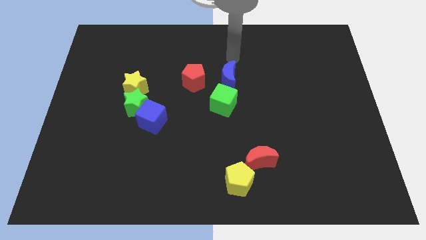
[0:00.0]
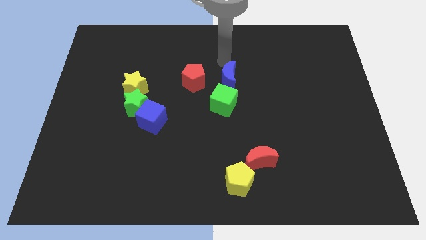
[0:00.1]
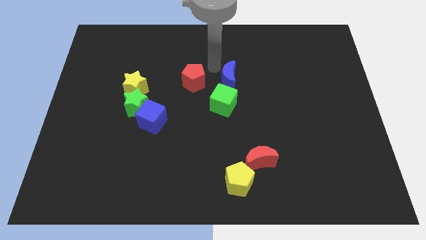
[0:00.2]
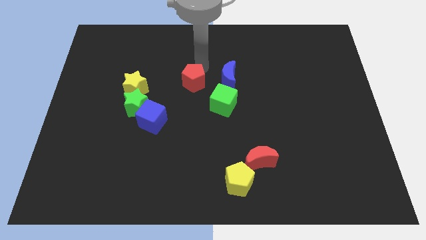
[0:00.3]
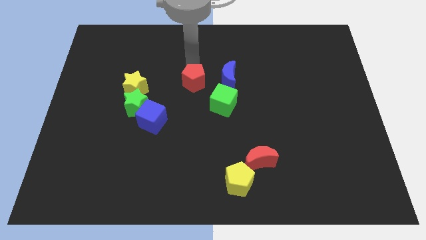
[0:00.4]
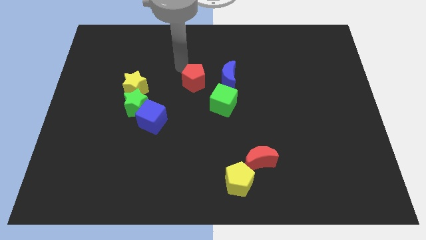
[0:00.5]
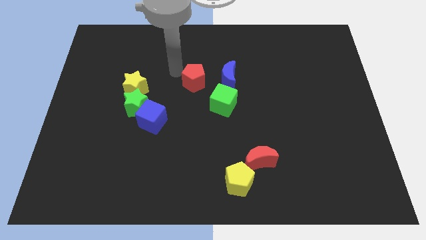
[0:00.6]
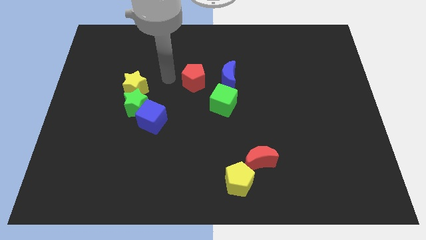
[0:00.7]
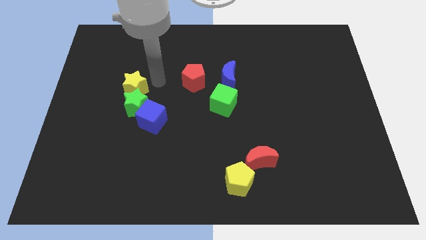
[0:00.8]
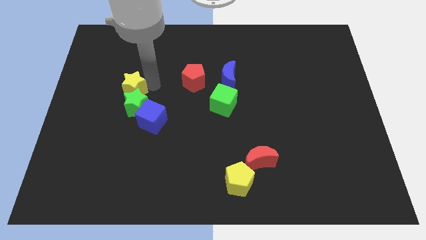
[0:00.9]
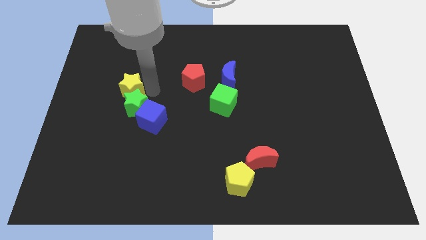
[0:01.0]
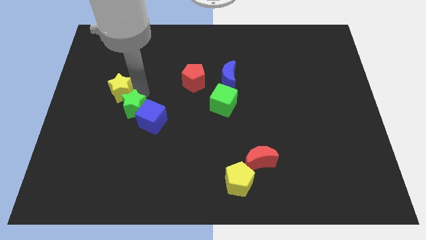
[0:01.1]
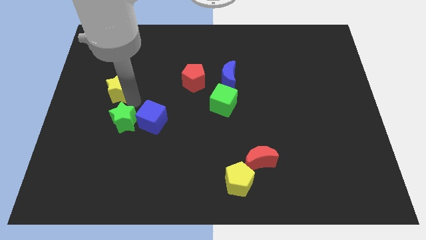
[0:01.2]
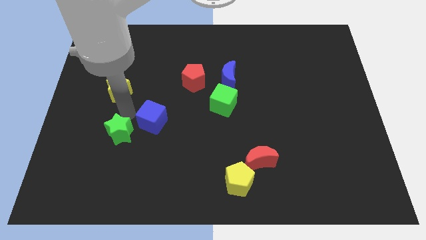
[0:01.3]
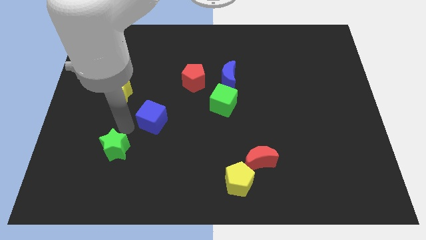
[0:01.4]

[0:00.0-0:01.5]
pull the blue cube apart from the green star

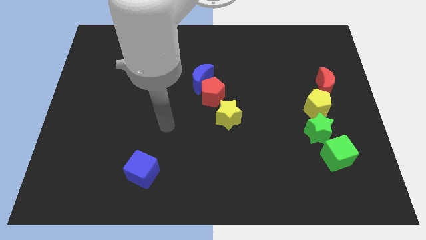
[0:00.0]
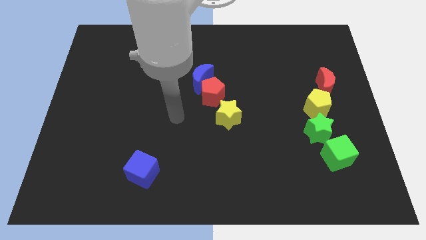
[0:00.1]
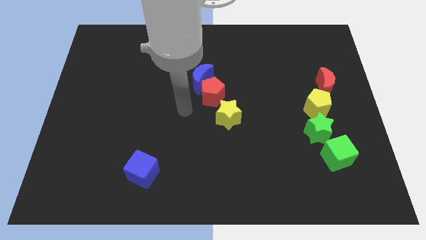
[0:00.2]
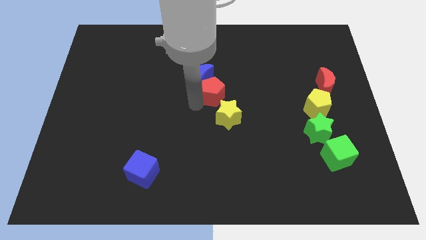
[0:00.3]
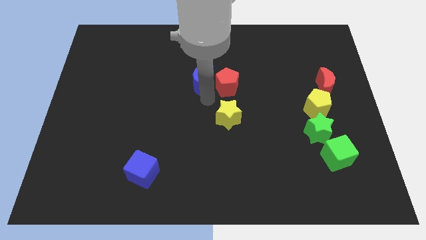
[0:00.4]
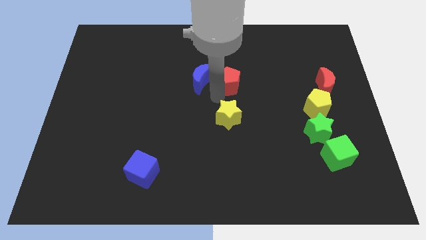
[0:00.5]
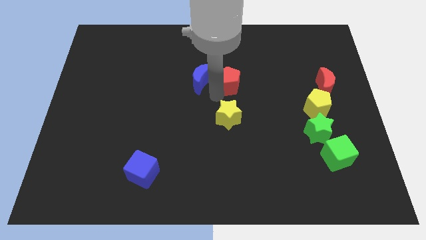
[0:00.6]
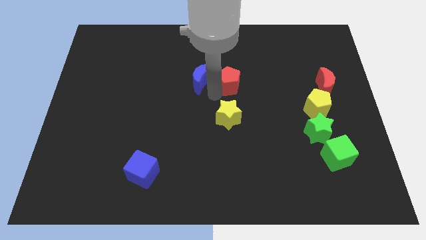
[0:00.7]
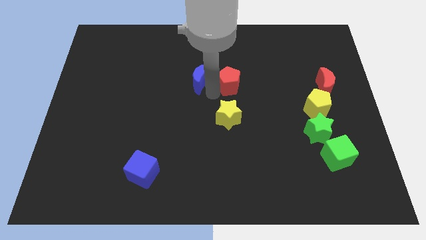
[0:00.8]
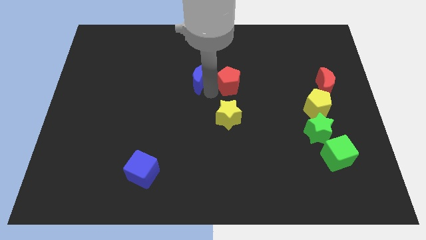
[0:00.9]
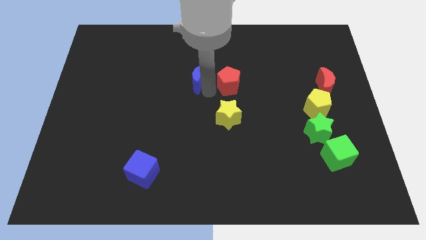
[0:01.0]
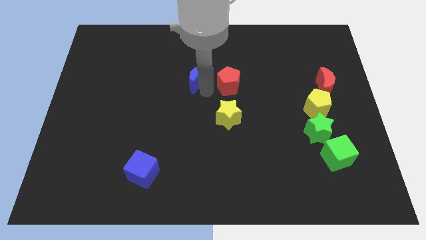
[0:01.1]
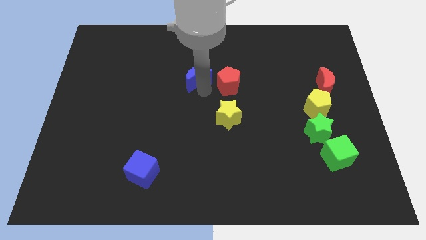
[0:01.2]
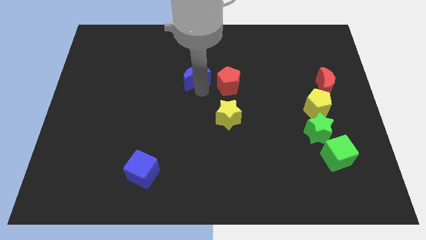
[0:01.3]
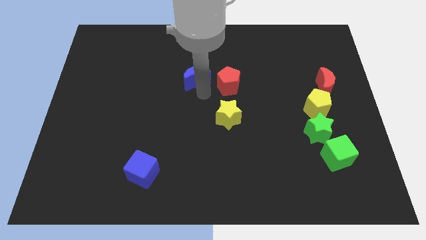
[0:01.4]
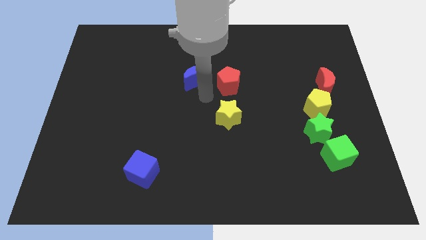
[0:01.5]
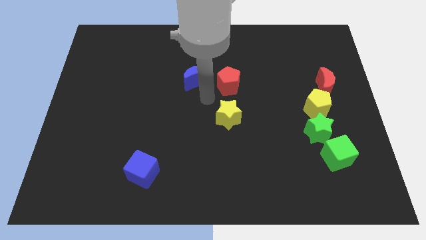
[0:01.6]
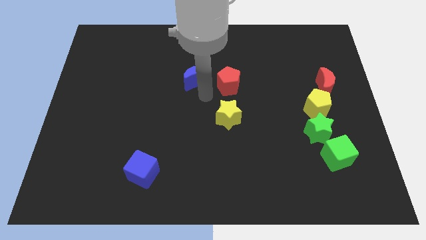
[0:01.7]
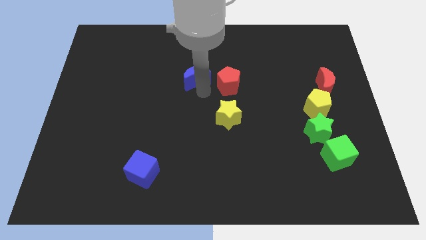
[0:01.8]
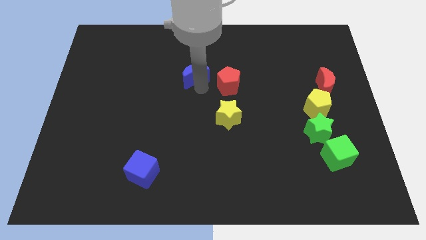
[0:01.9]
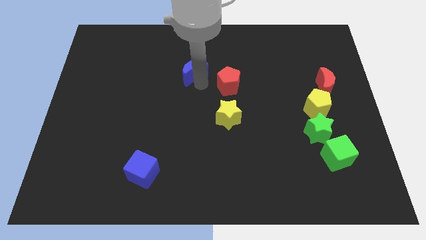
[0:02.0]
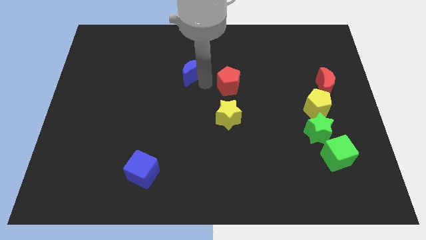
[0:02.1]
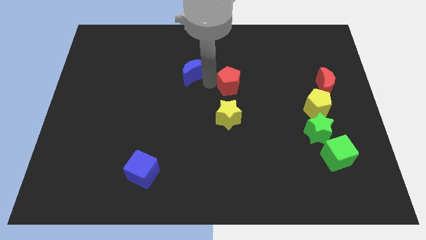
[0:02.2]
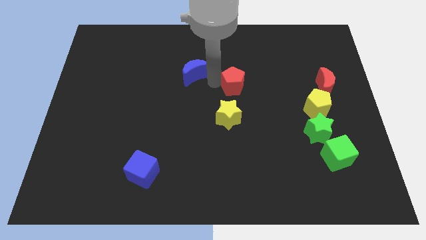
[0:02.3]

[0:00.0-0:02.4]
move the blue moon away from the red pentagon

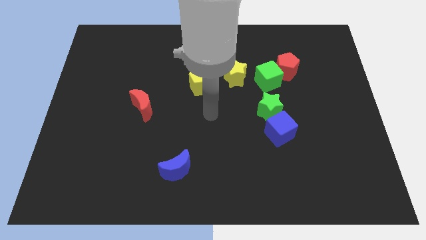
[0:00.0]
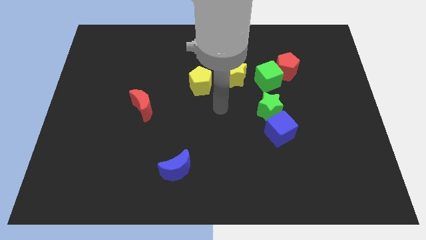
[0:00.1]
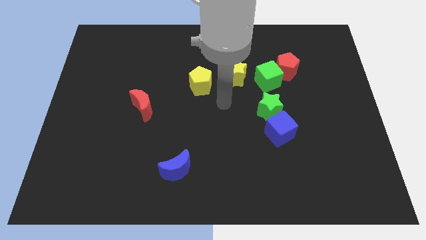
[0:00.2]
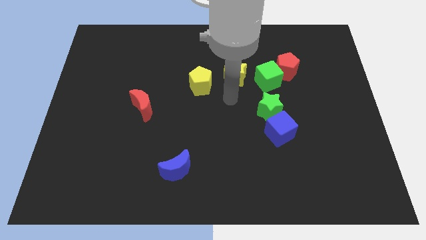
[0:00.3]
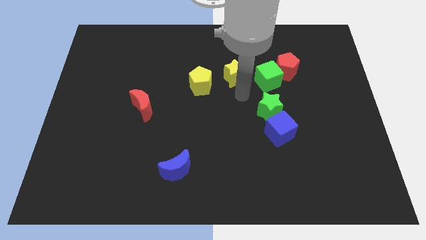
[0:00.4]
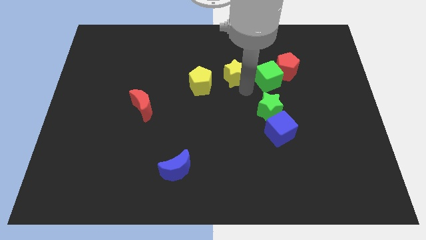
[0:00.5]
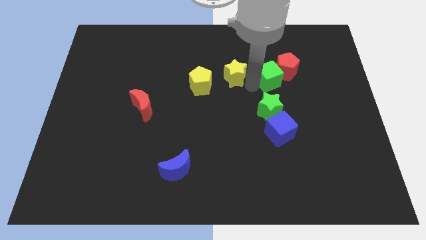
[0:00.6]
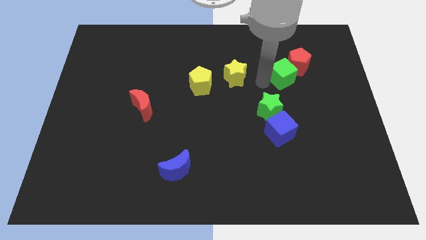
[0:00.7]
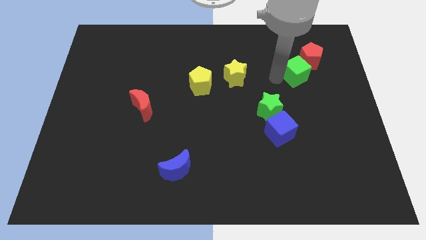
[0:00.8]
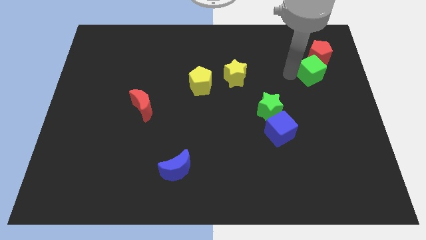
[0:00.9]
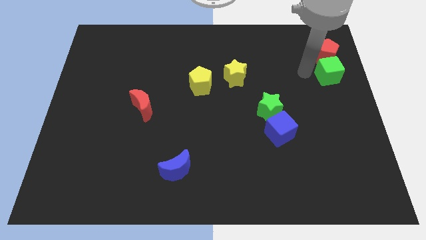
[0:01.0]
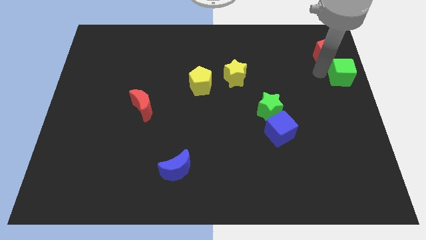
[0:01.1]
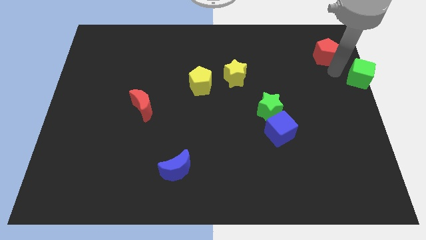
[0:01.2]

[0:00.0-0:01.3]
separate the red pentagon from the green cube

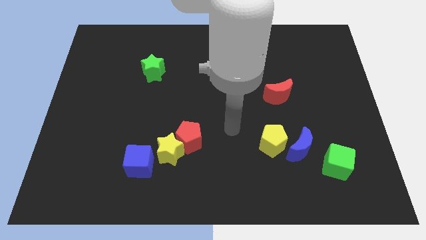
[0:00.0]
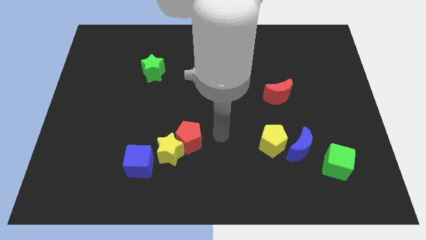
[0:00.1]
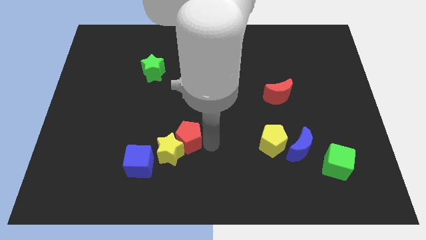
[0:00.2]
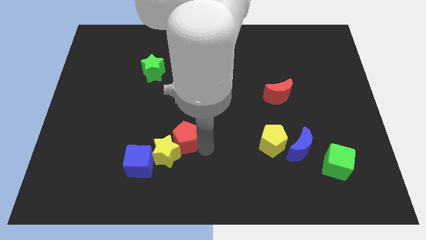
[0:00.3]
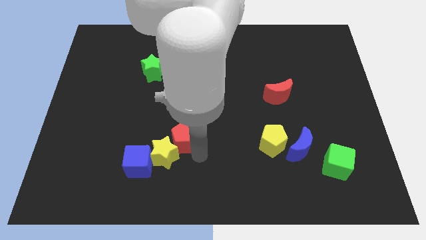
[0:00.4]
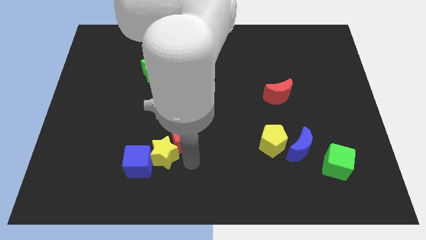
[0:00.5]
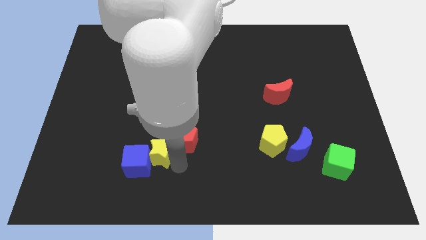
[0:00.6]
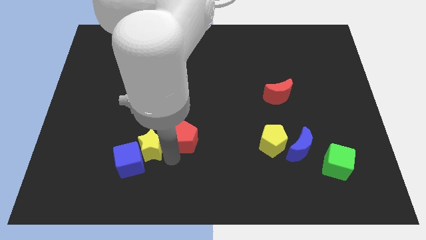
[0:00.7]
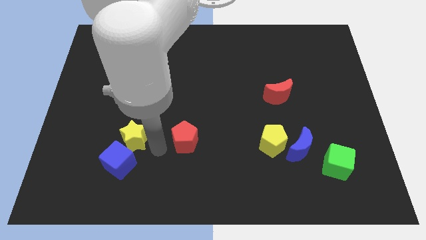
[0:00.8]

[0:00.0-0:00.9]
move the red pentagon away from the yellow star

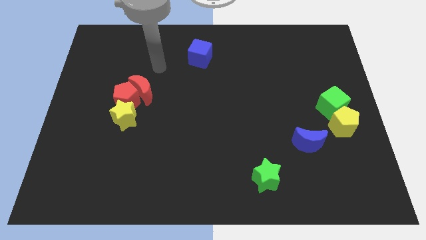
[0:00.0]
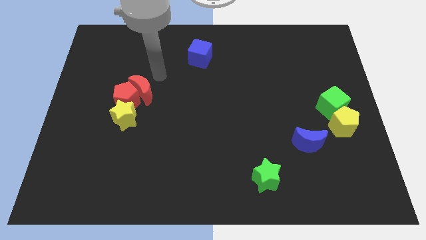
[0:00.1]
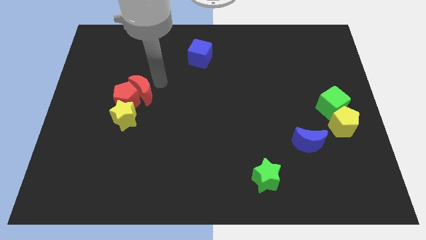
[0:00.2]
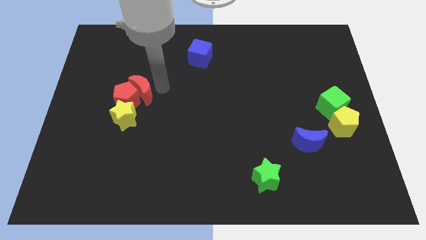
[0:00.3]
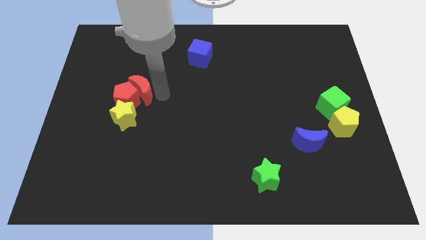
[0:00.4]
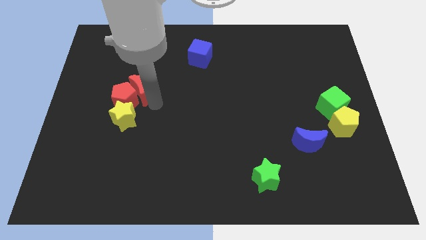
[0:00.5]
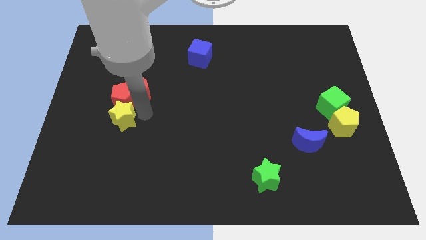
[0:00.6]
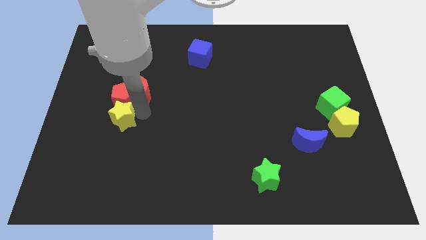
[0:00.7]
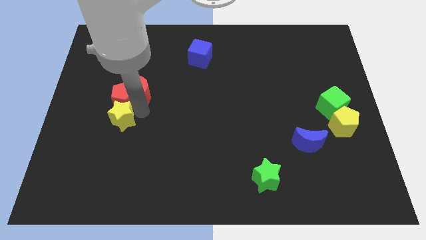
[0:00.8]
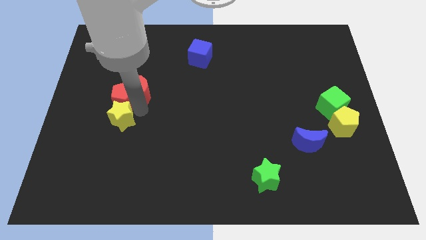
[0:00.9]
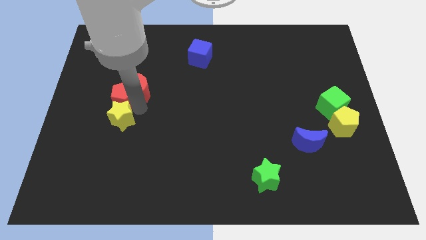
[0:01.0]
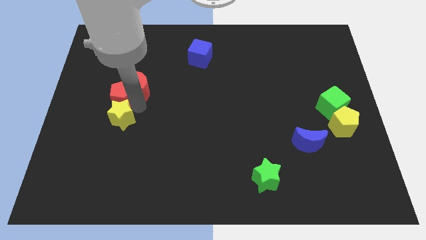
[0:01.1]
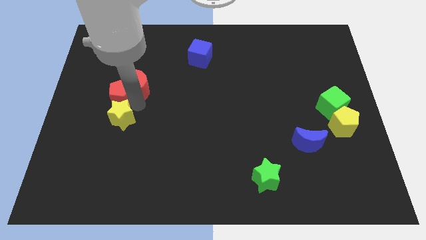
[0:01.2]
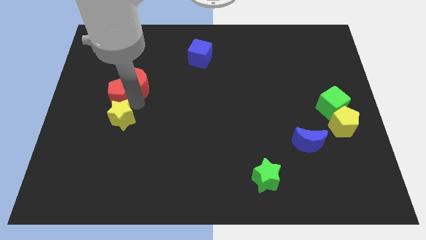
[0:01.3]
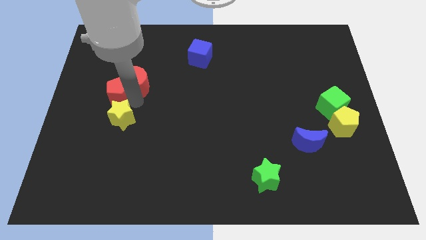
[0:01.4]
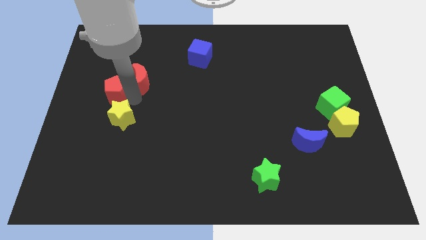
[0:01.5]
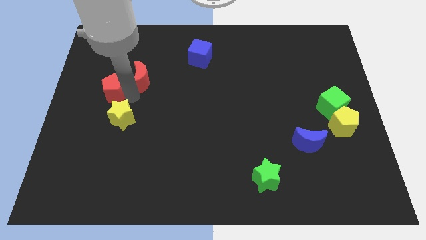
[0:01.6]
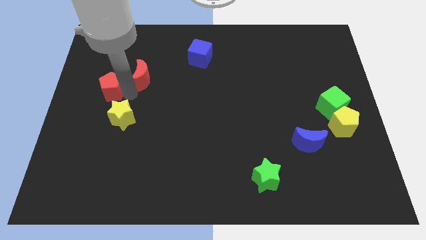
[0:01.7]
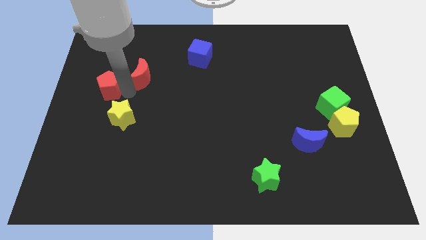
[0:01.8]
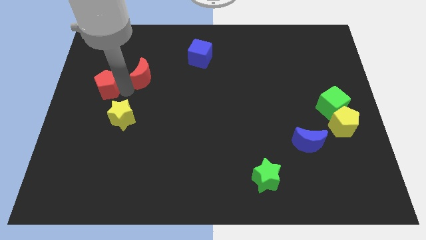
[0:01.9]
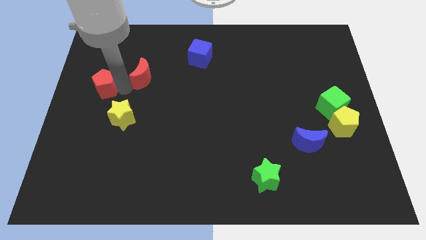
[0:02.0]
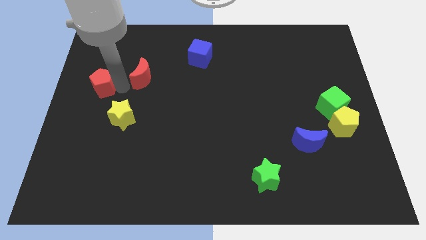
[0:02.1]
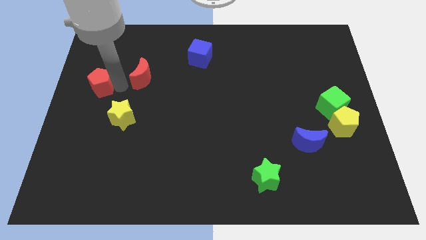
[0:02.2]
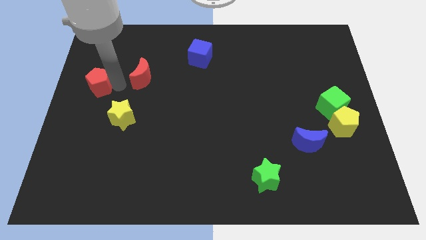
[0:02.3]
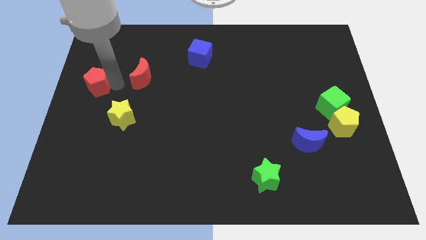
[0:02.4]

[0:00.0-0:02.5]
move the red pentagon away from the red moon and yellow star

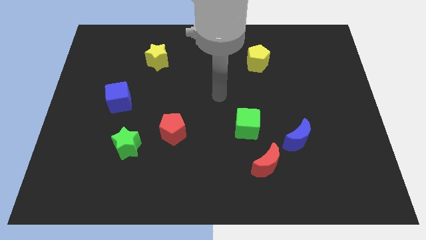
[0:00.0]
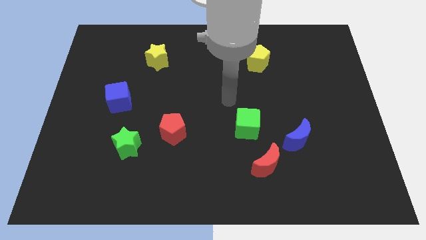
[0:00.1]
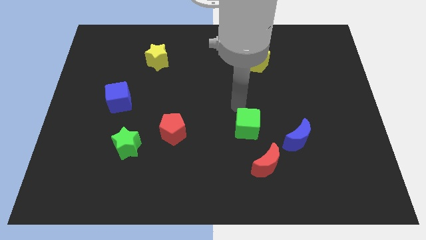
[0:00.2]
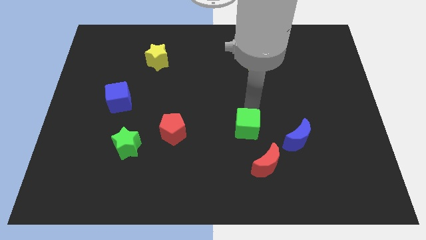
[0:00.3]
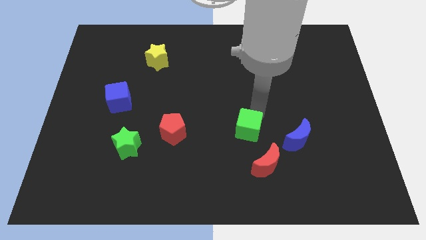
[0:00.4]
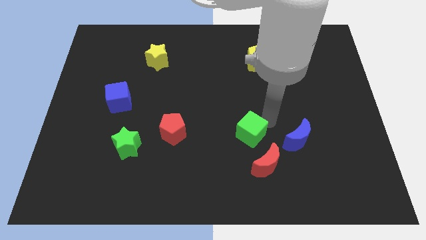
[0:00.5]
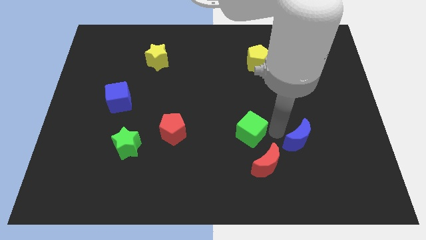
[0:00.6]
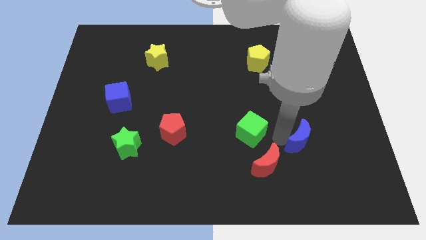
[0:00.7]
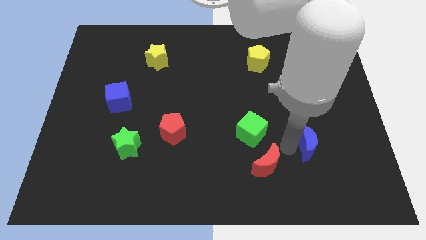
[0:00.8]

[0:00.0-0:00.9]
pull the red moon apart from the blue moon
